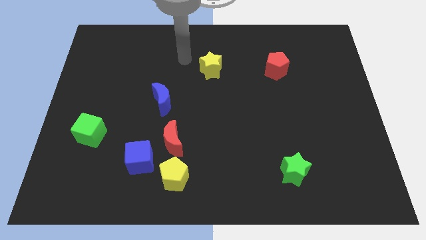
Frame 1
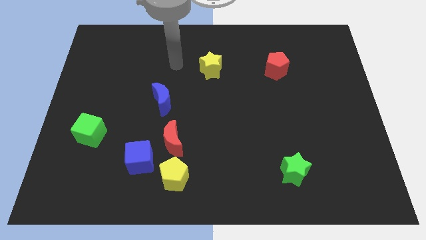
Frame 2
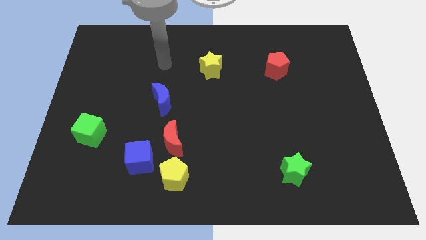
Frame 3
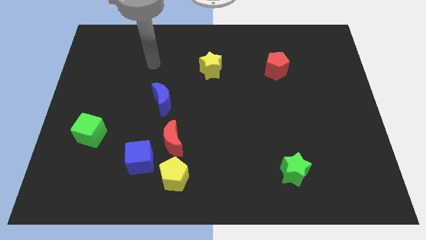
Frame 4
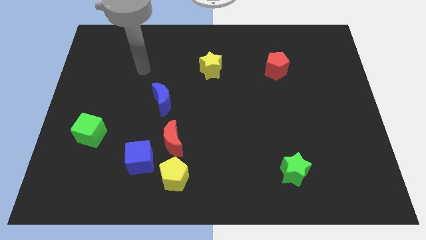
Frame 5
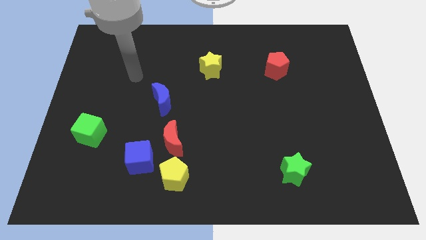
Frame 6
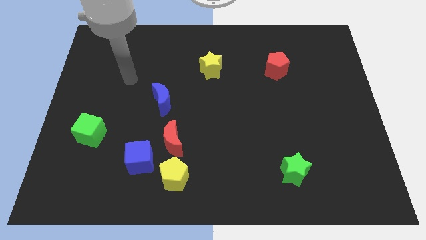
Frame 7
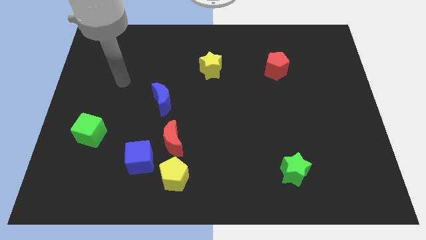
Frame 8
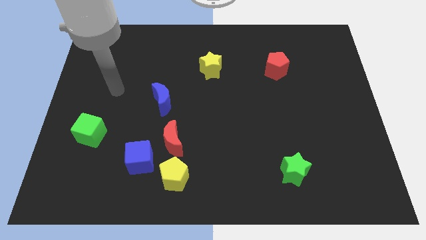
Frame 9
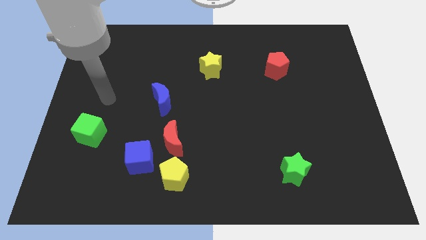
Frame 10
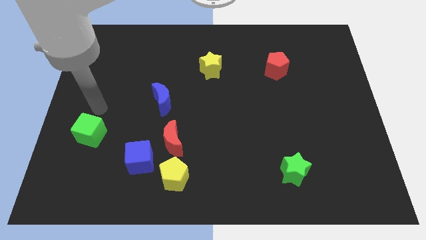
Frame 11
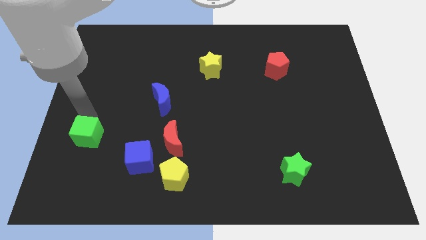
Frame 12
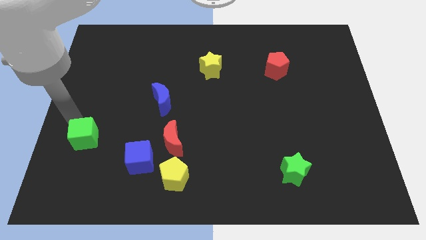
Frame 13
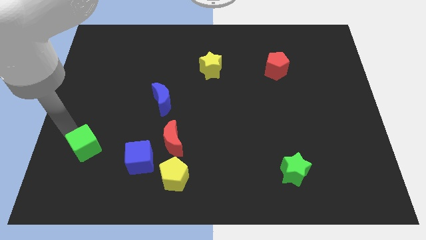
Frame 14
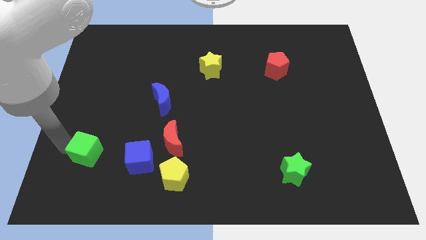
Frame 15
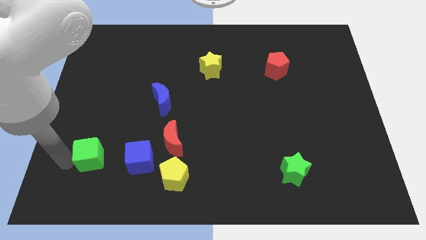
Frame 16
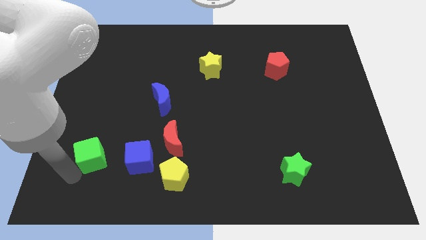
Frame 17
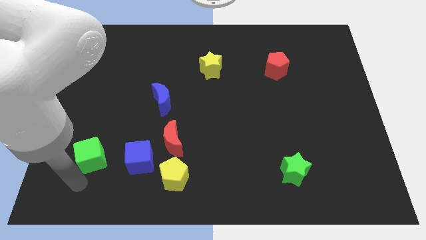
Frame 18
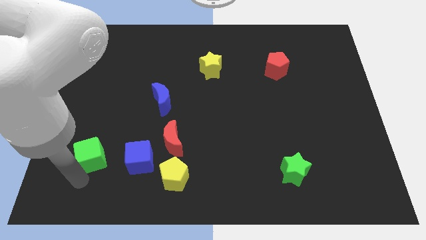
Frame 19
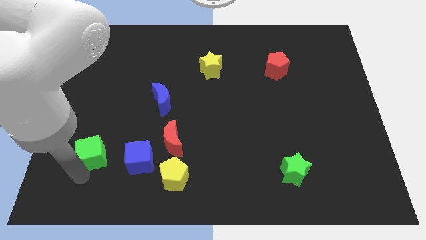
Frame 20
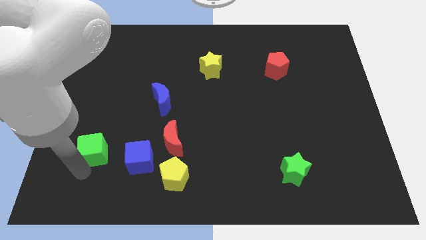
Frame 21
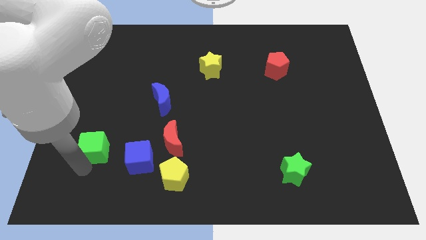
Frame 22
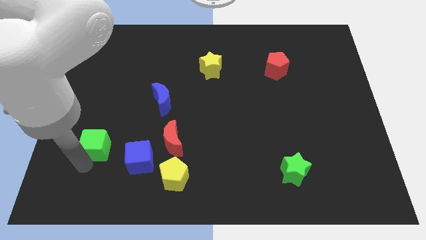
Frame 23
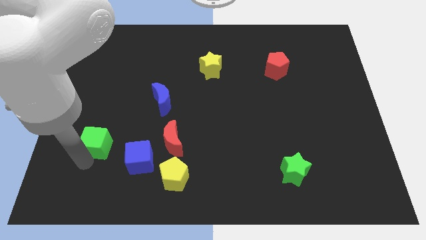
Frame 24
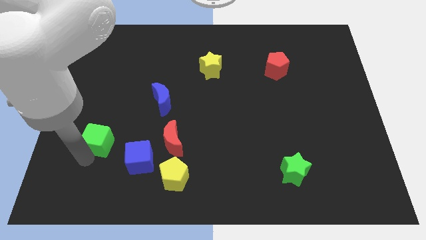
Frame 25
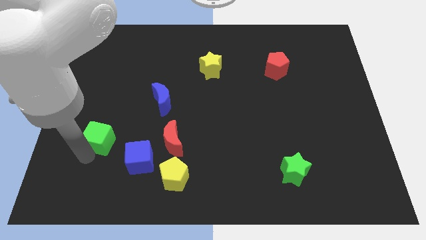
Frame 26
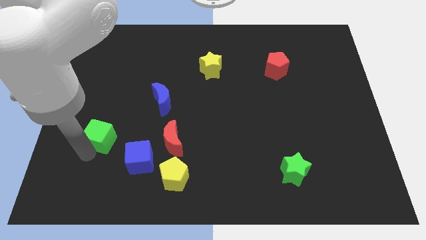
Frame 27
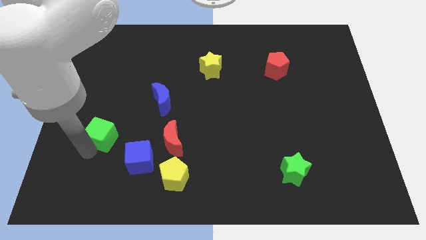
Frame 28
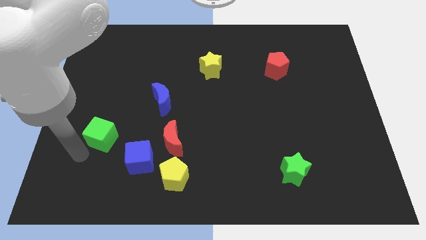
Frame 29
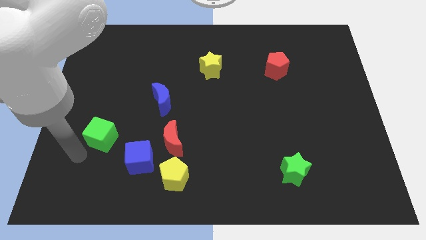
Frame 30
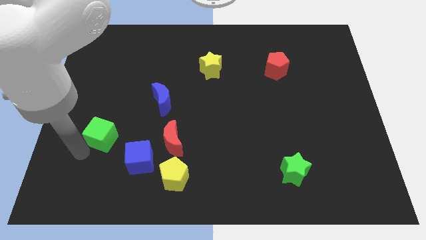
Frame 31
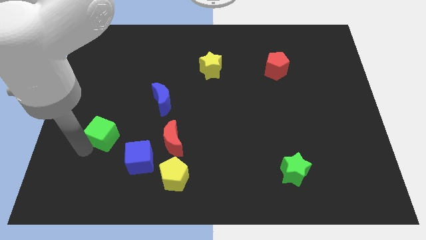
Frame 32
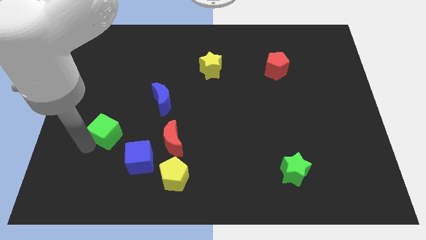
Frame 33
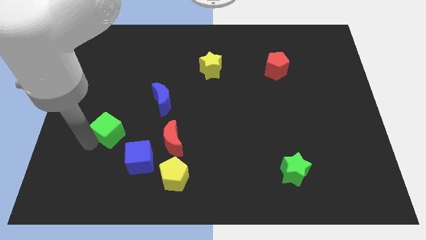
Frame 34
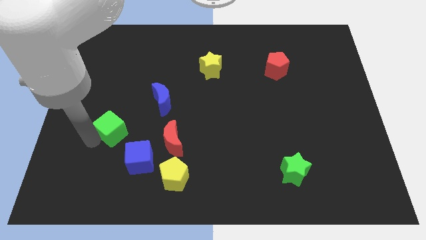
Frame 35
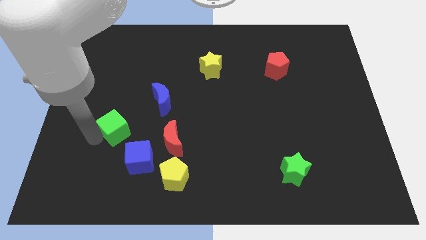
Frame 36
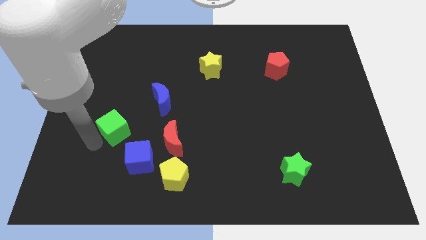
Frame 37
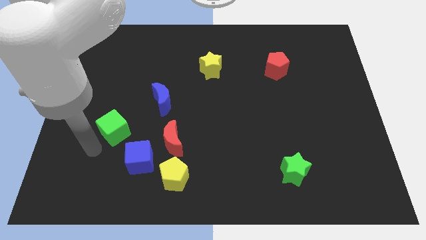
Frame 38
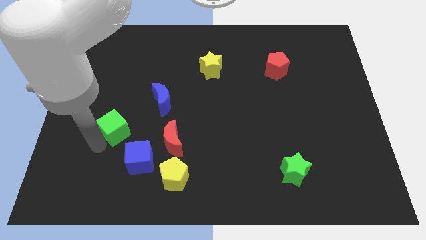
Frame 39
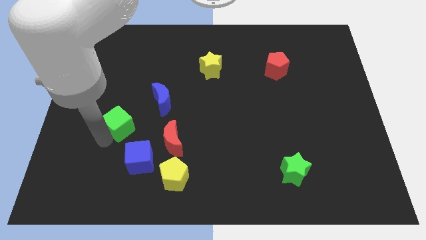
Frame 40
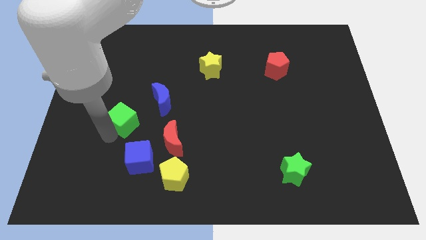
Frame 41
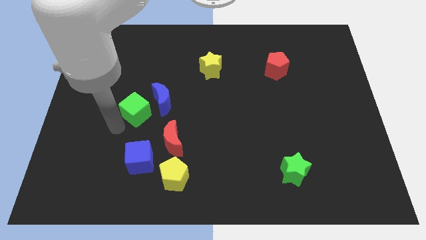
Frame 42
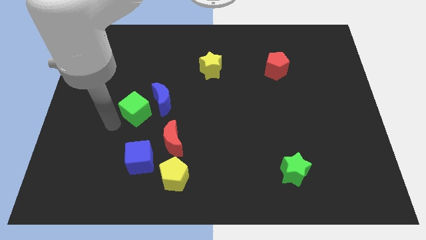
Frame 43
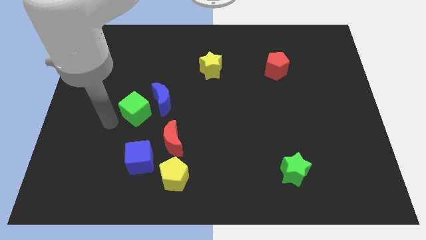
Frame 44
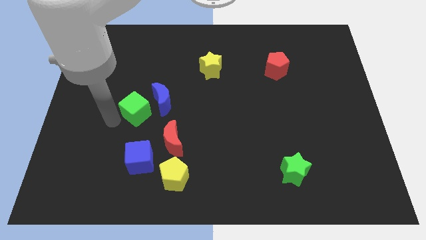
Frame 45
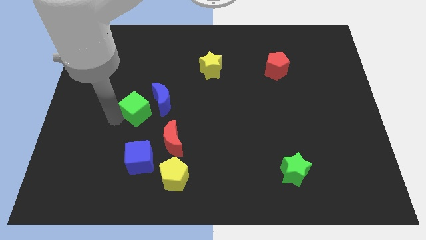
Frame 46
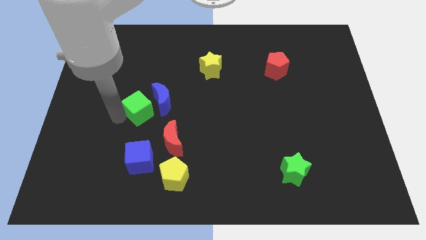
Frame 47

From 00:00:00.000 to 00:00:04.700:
push the green cube next to the blue moon

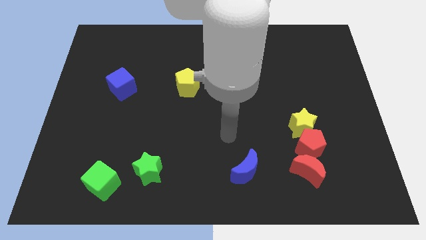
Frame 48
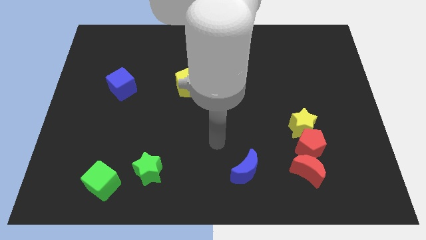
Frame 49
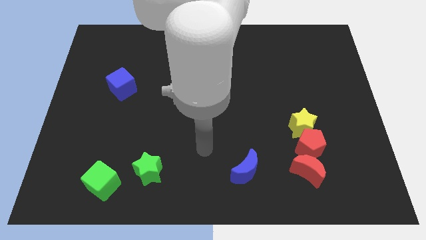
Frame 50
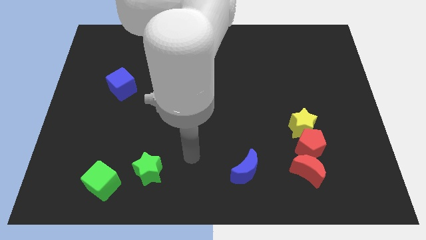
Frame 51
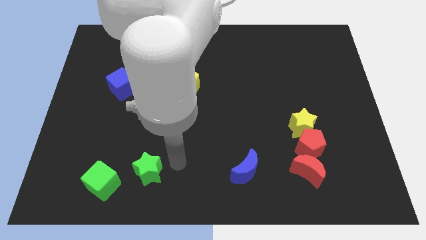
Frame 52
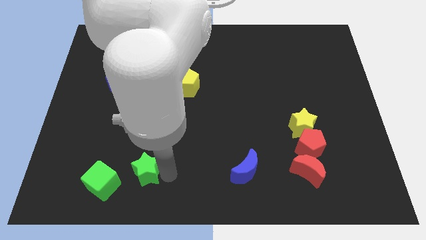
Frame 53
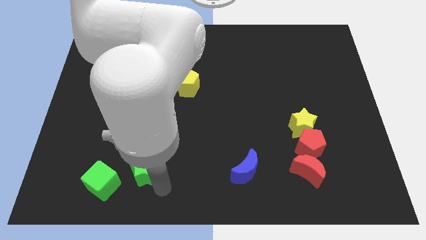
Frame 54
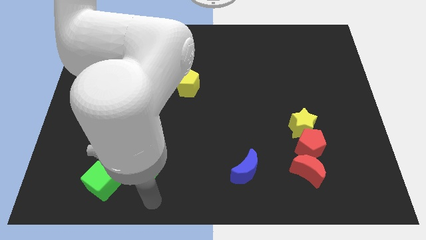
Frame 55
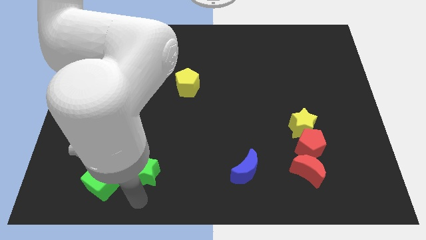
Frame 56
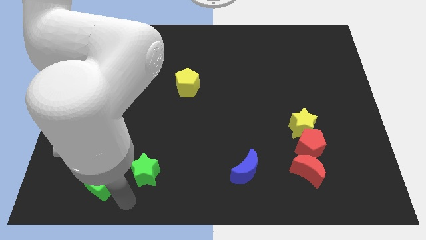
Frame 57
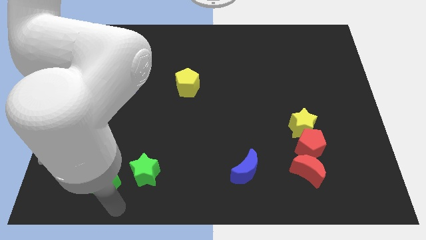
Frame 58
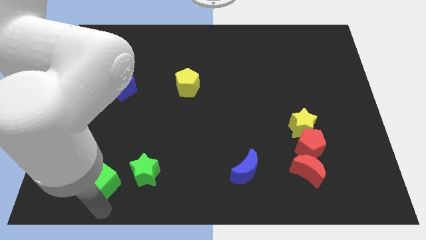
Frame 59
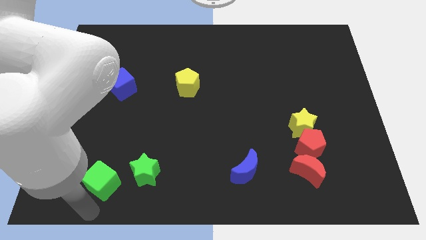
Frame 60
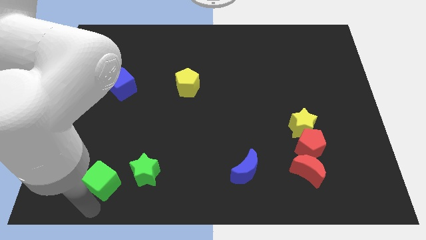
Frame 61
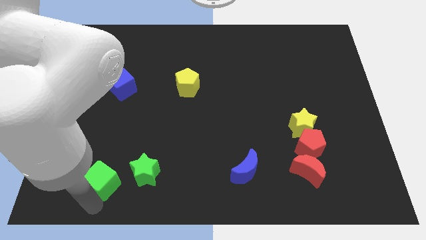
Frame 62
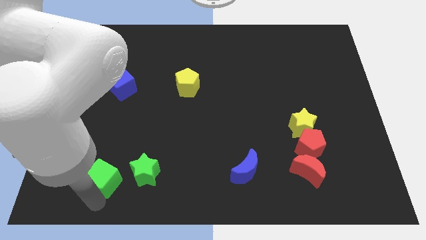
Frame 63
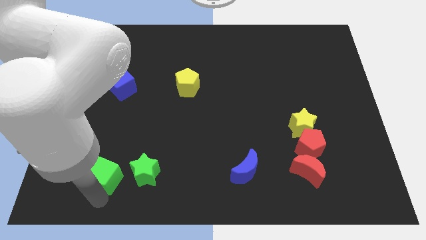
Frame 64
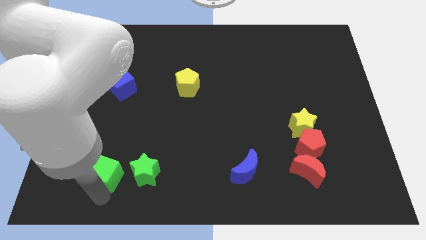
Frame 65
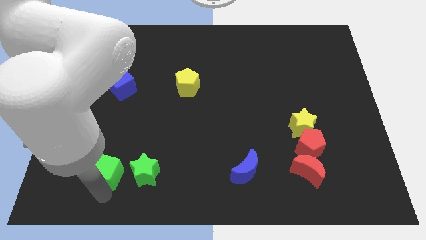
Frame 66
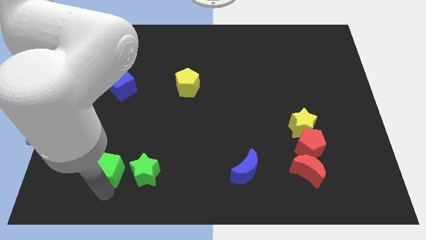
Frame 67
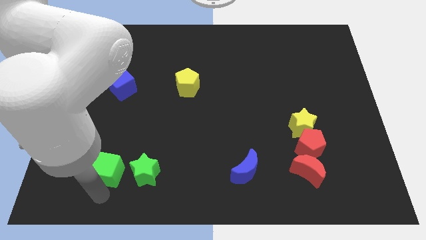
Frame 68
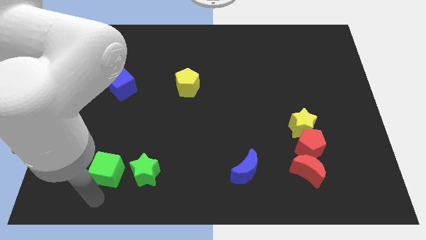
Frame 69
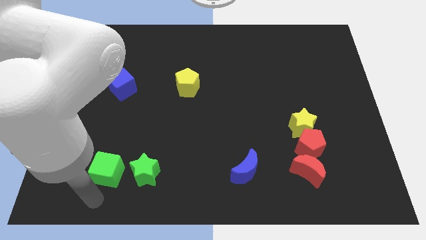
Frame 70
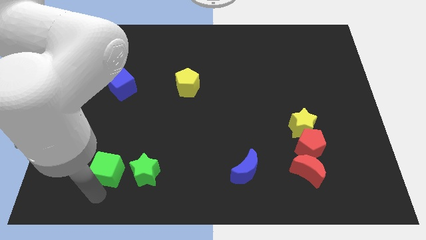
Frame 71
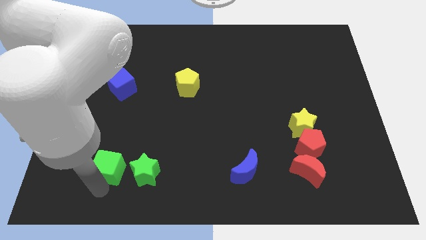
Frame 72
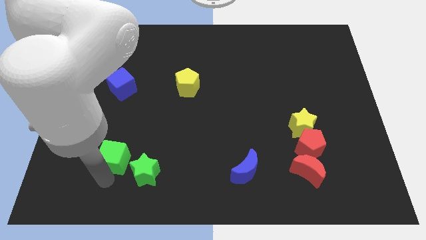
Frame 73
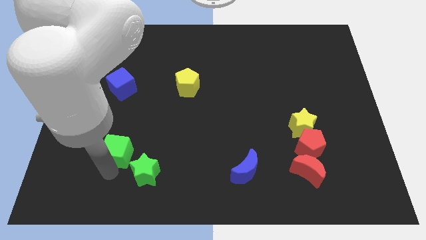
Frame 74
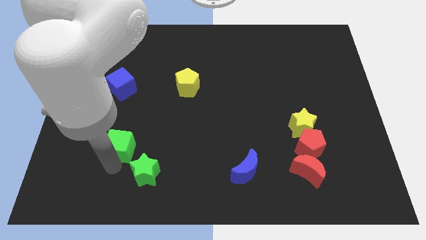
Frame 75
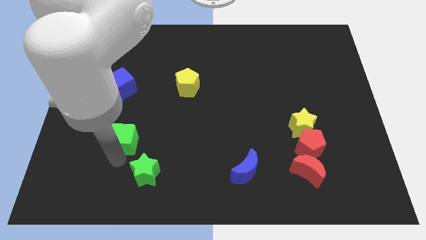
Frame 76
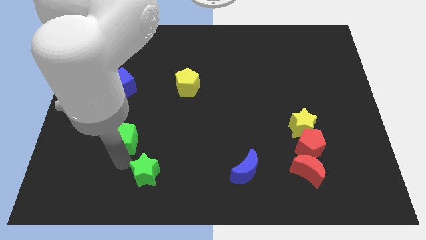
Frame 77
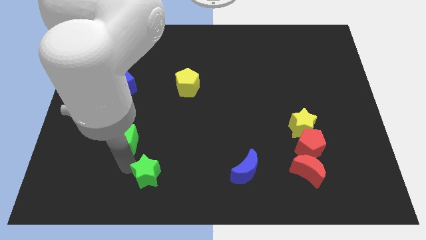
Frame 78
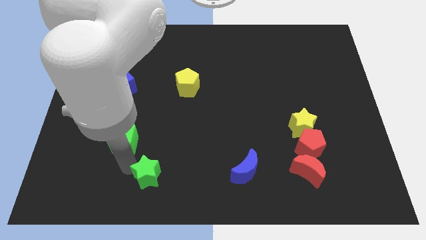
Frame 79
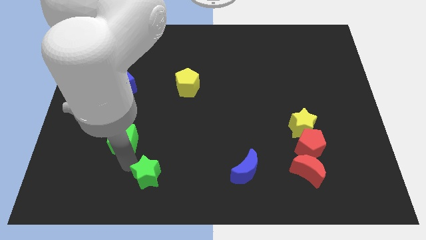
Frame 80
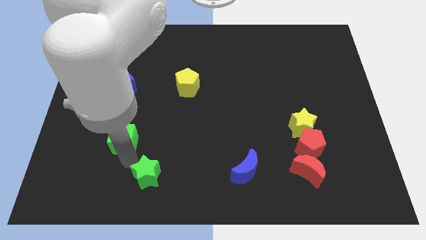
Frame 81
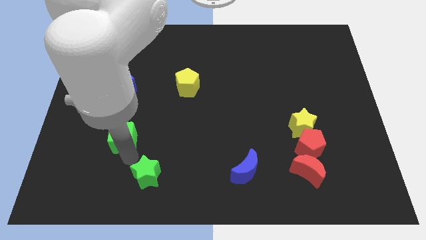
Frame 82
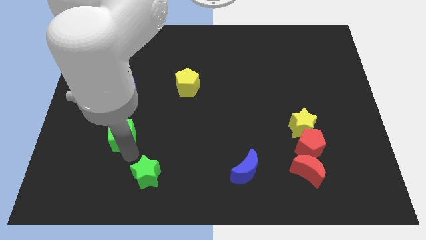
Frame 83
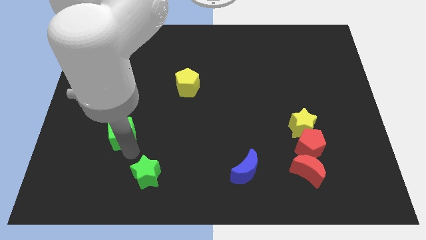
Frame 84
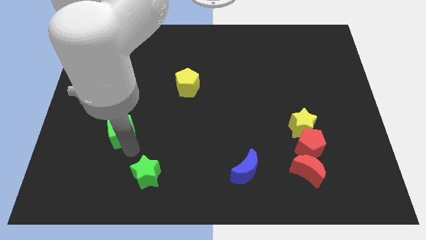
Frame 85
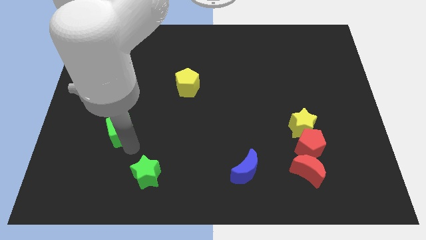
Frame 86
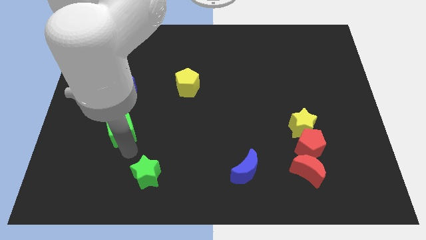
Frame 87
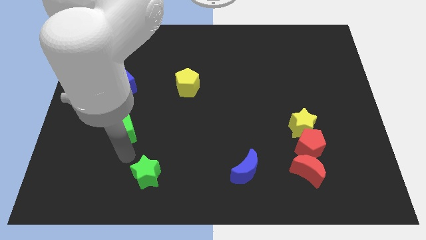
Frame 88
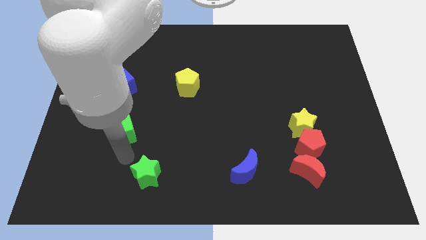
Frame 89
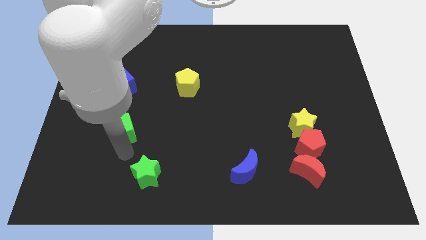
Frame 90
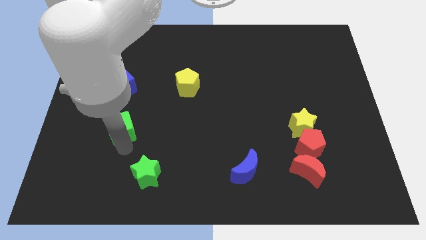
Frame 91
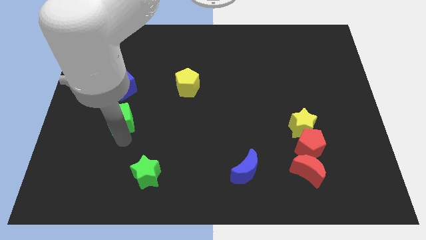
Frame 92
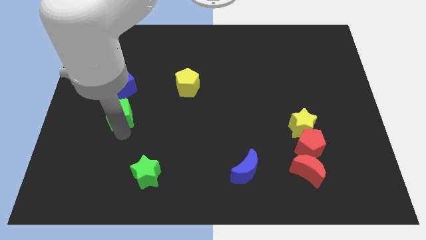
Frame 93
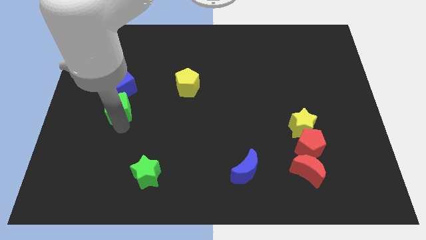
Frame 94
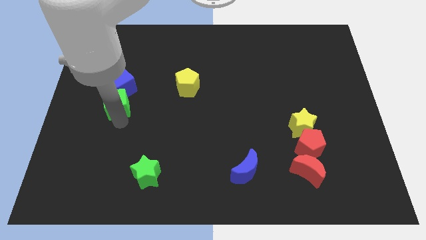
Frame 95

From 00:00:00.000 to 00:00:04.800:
put the green cube towards the blue cube
